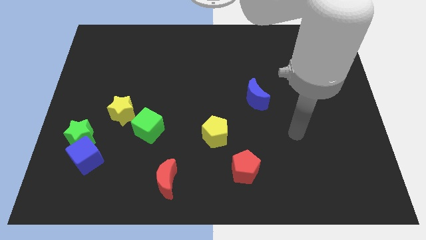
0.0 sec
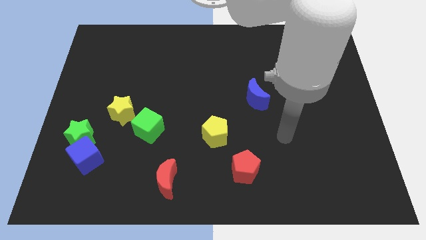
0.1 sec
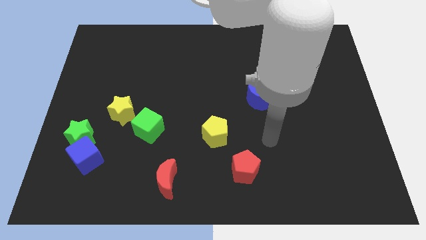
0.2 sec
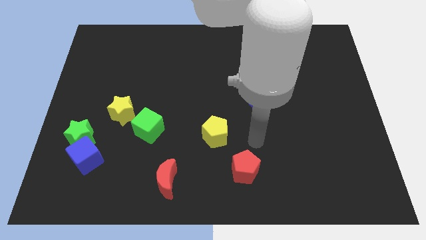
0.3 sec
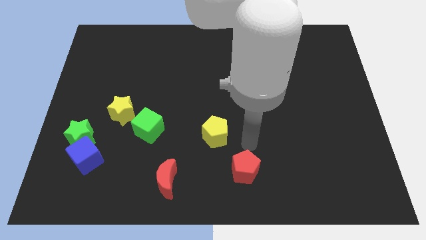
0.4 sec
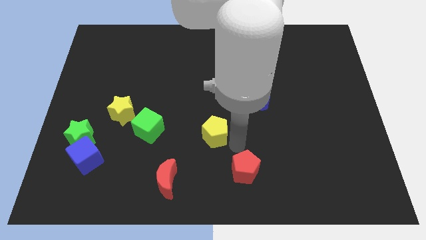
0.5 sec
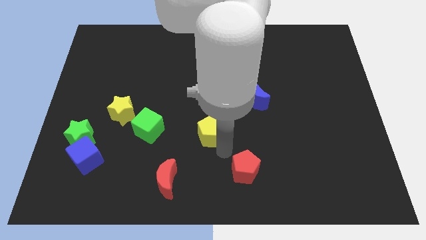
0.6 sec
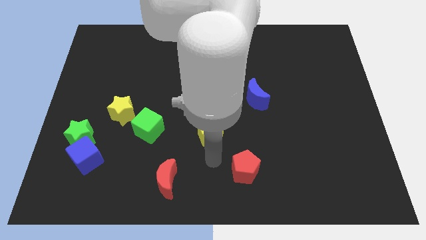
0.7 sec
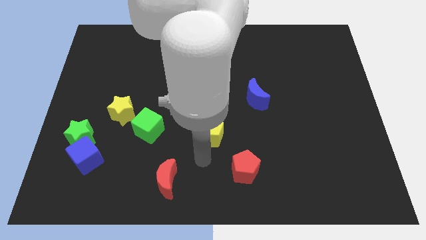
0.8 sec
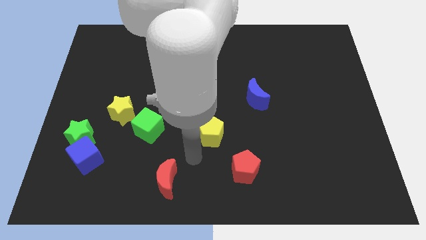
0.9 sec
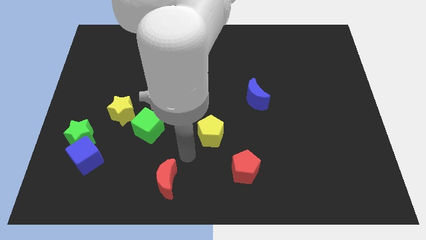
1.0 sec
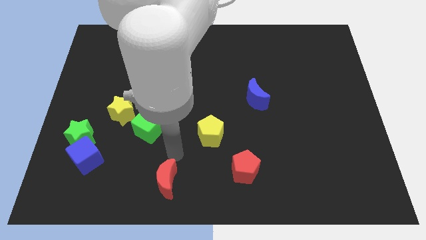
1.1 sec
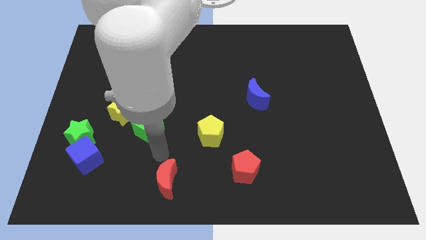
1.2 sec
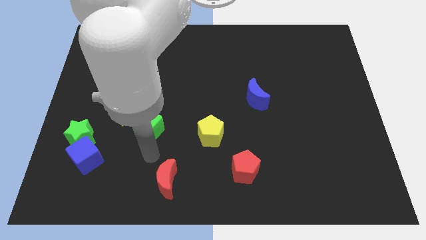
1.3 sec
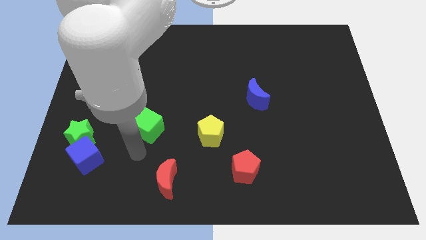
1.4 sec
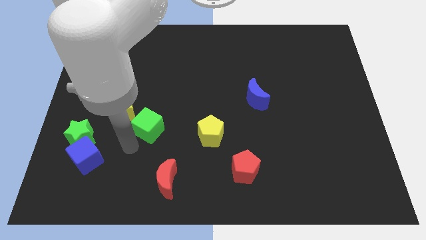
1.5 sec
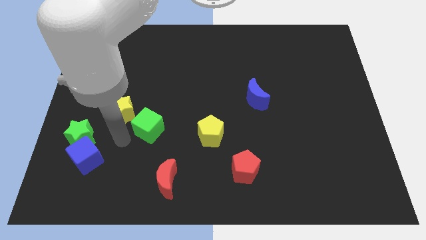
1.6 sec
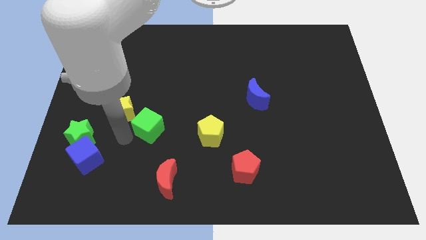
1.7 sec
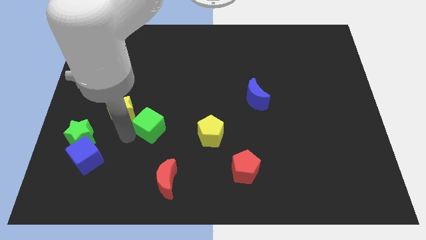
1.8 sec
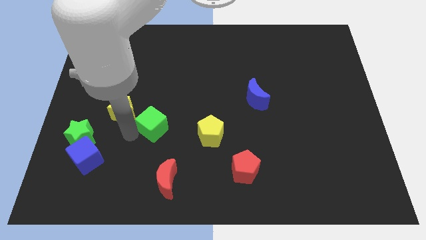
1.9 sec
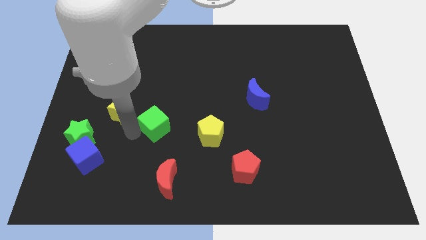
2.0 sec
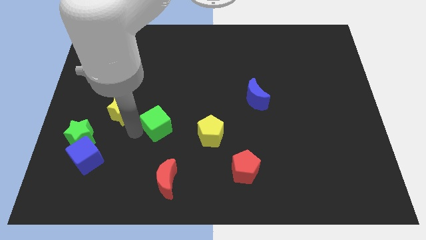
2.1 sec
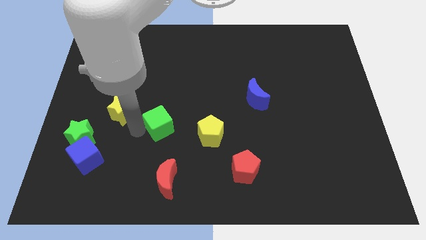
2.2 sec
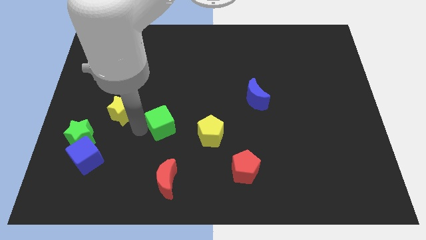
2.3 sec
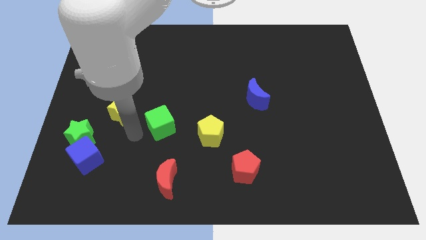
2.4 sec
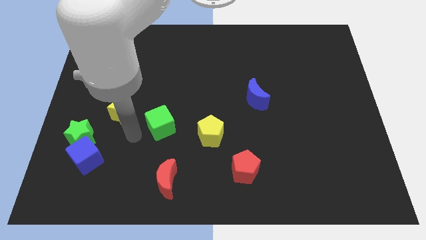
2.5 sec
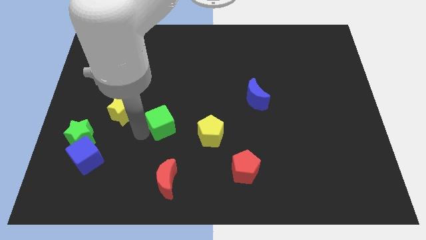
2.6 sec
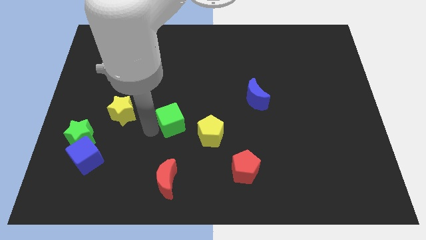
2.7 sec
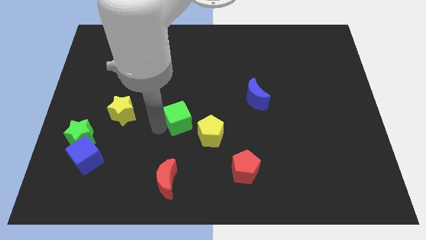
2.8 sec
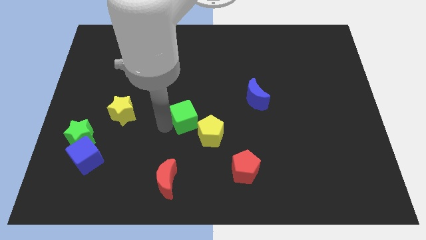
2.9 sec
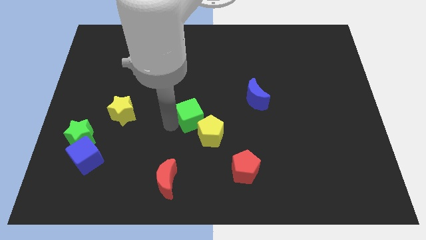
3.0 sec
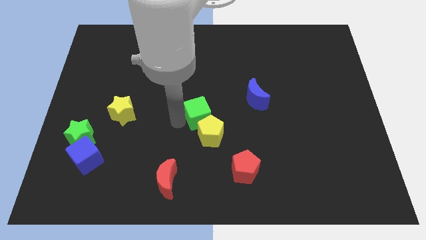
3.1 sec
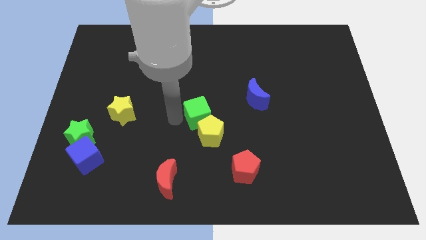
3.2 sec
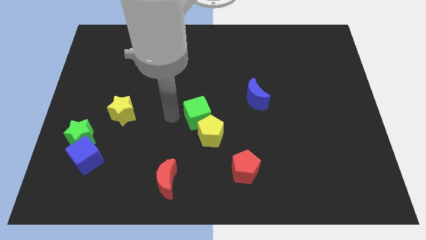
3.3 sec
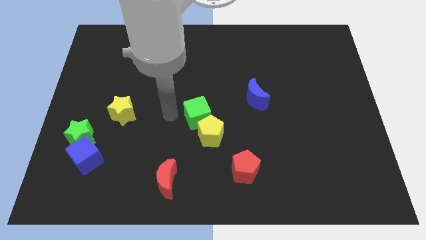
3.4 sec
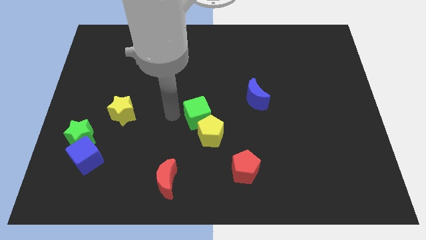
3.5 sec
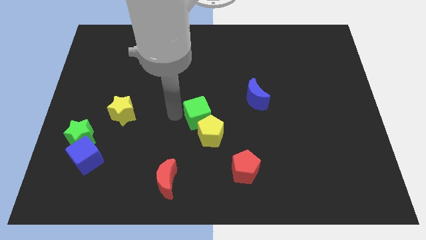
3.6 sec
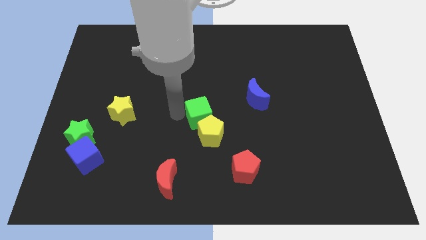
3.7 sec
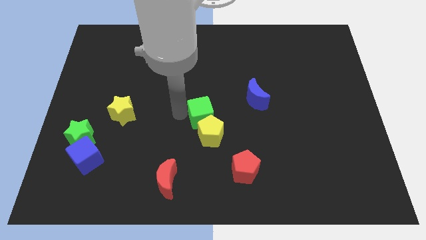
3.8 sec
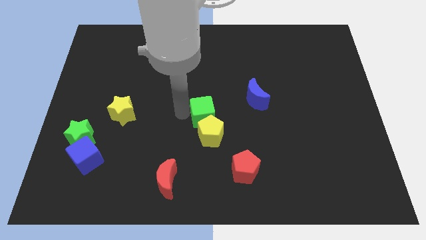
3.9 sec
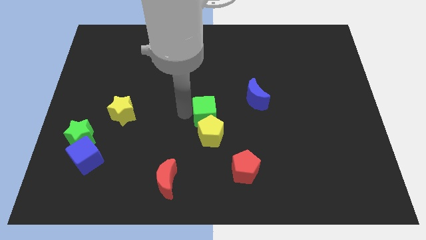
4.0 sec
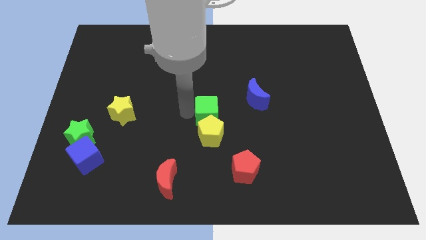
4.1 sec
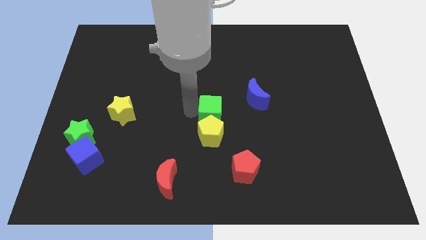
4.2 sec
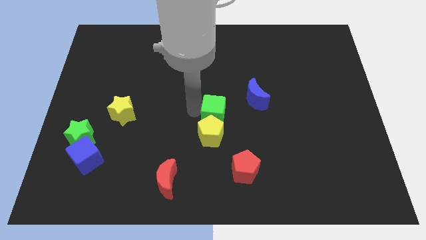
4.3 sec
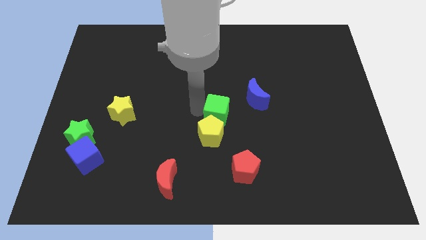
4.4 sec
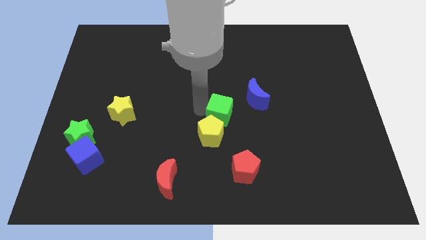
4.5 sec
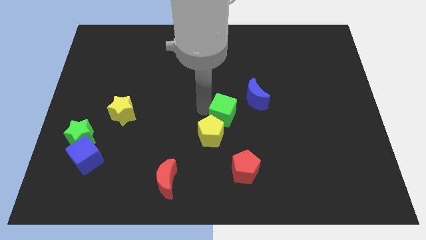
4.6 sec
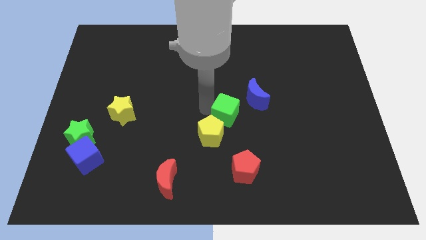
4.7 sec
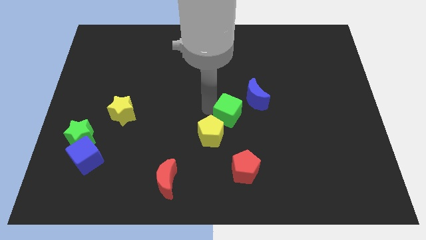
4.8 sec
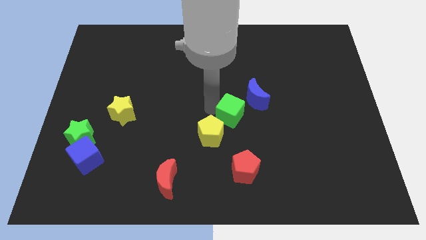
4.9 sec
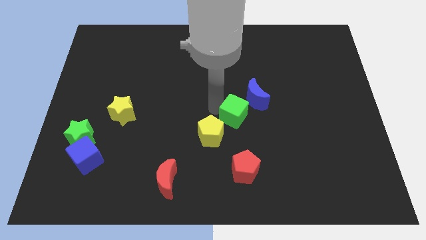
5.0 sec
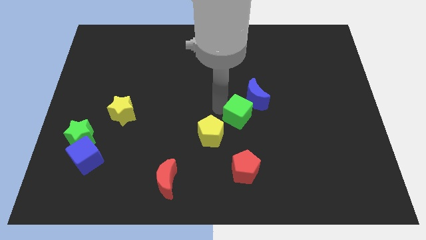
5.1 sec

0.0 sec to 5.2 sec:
push the green cube below the blue moon

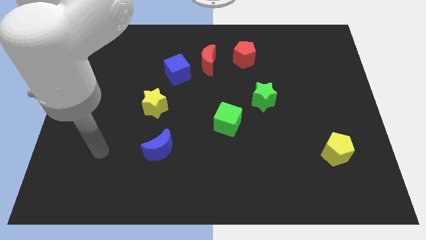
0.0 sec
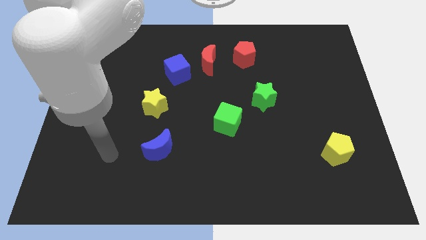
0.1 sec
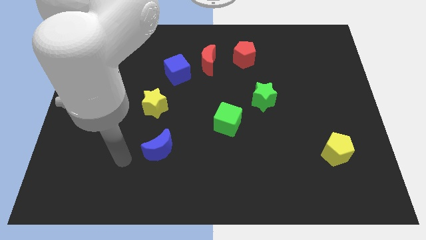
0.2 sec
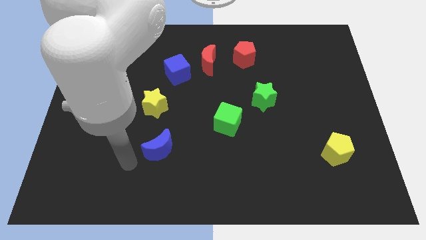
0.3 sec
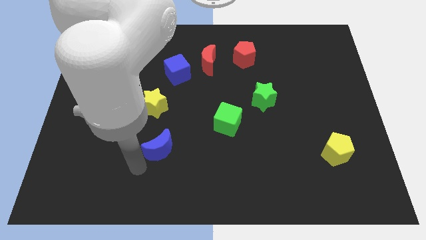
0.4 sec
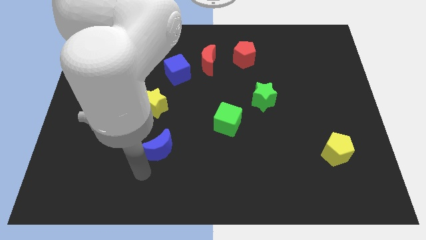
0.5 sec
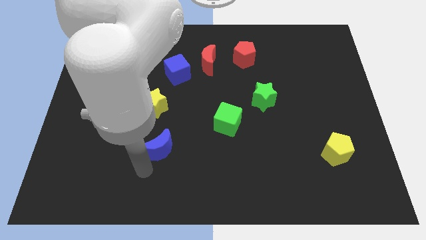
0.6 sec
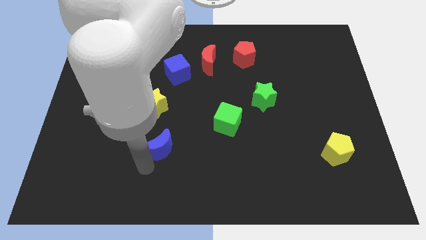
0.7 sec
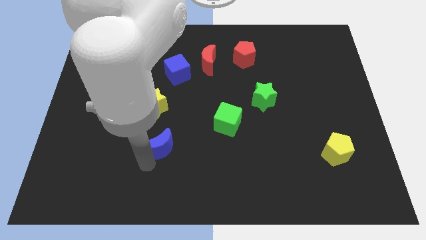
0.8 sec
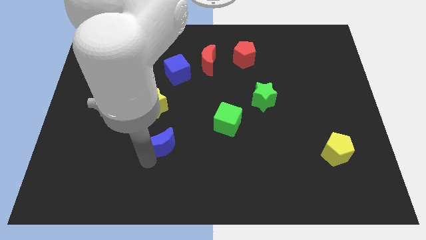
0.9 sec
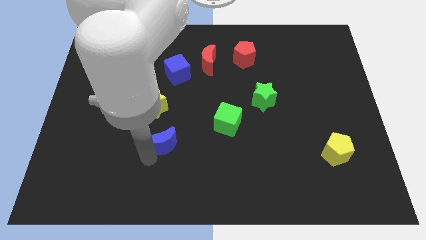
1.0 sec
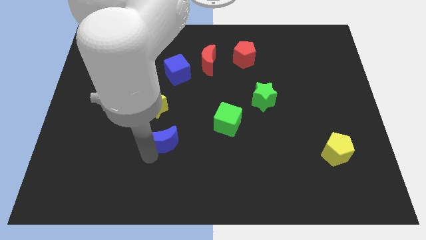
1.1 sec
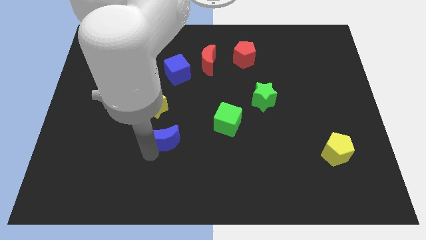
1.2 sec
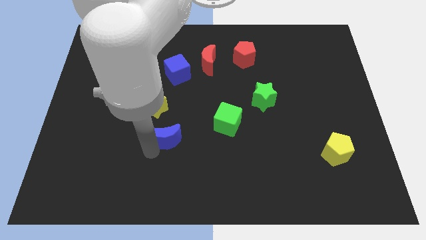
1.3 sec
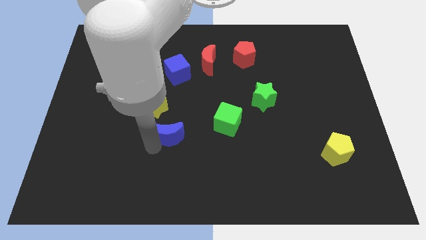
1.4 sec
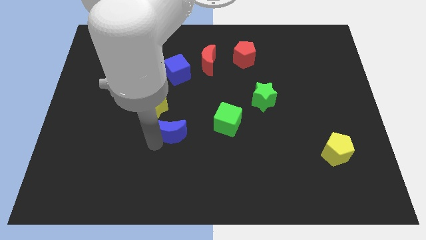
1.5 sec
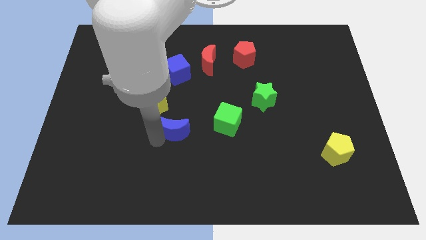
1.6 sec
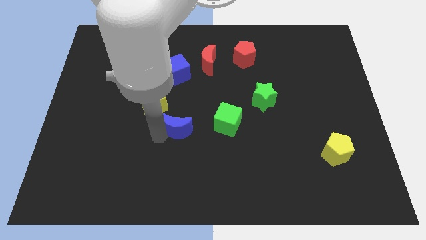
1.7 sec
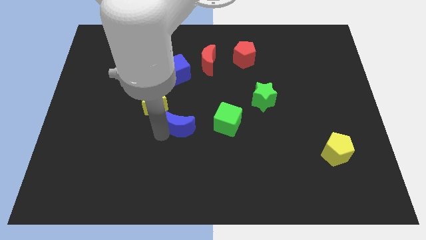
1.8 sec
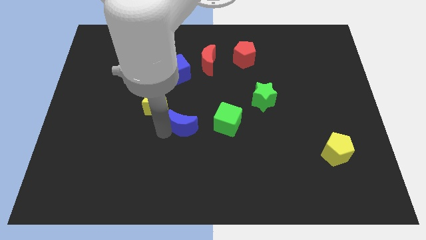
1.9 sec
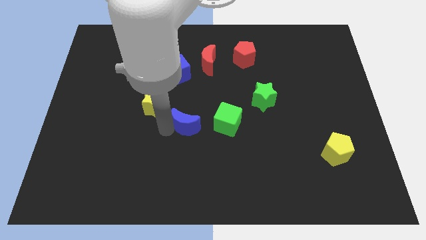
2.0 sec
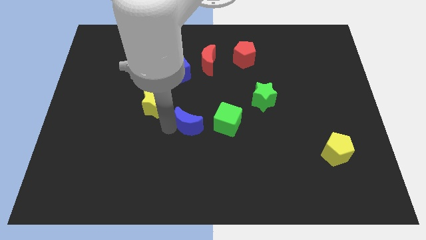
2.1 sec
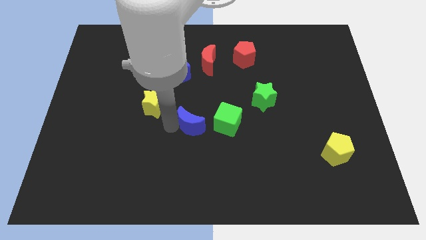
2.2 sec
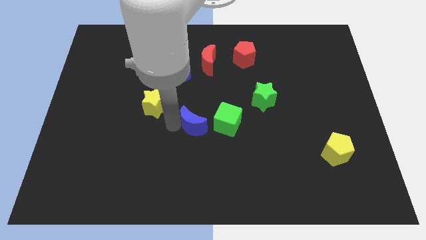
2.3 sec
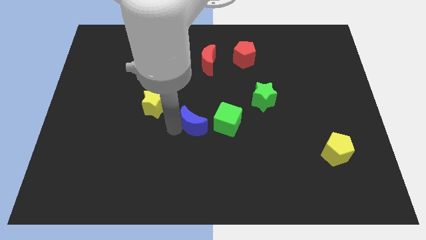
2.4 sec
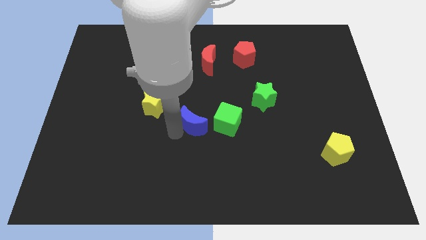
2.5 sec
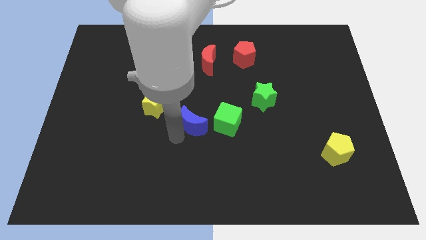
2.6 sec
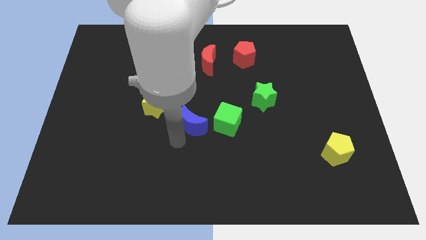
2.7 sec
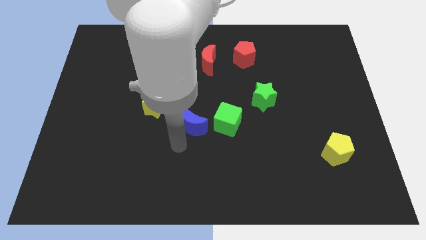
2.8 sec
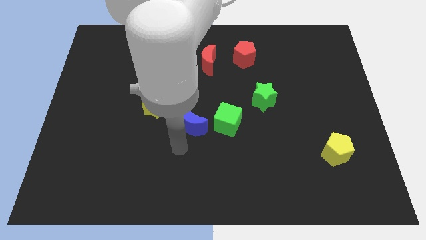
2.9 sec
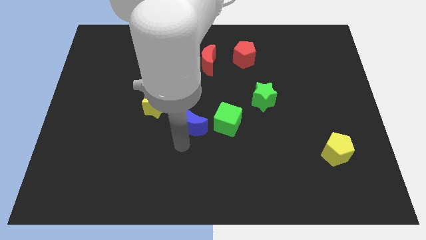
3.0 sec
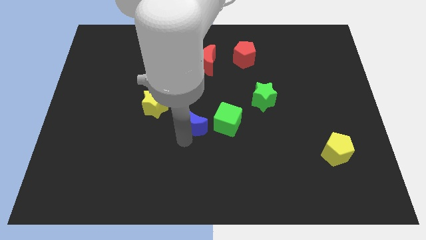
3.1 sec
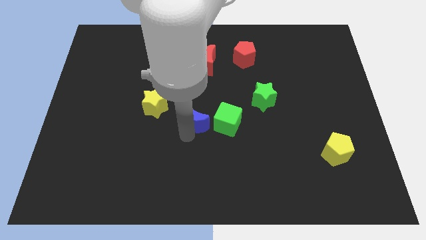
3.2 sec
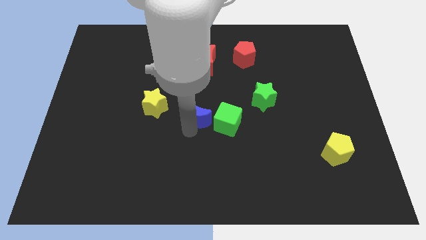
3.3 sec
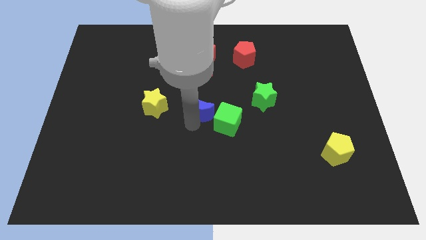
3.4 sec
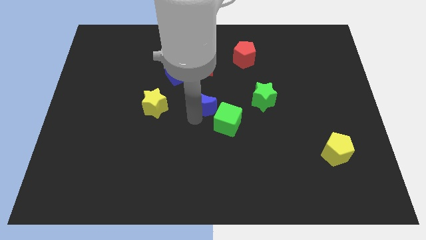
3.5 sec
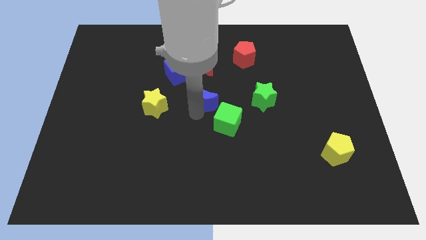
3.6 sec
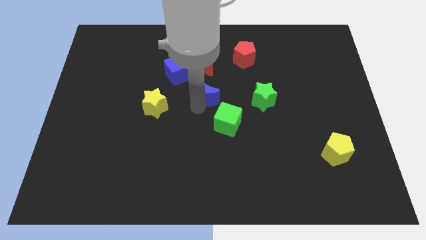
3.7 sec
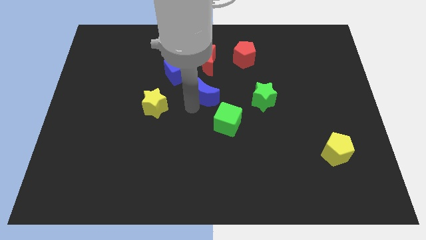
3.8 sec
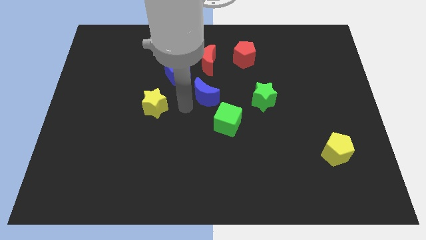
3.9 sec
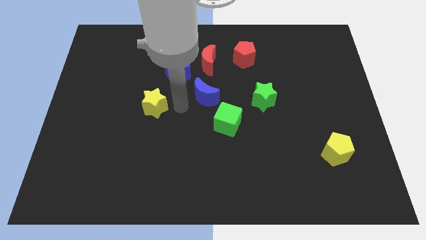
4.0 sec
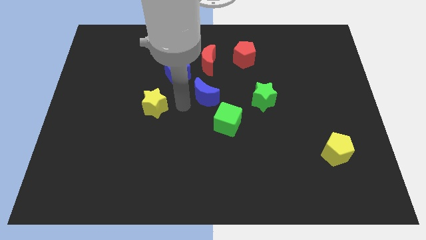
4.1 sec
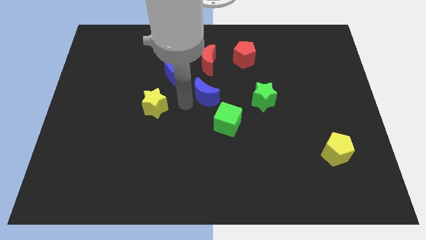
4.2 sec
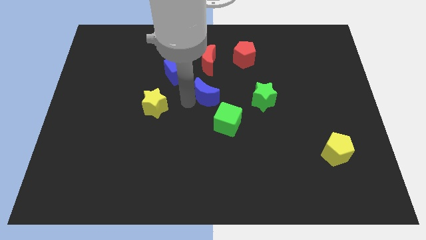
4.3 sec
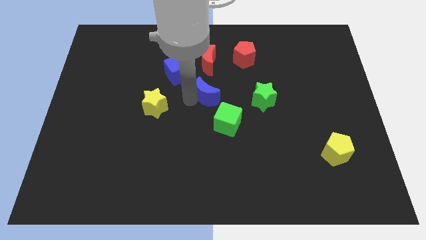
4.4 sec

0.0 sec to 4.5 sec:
put the blue moon to the top side of the green cube
